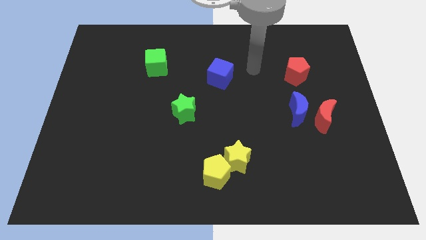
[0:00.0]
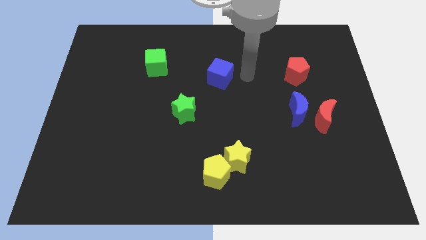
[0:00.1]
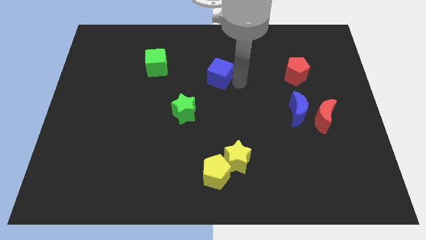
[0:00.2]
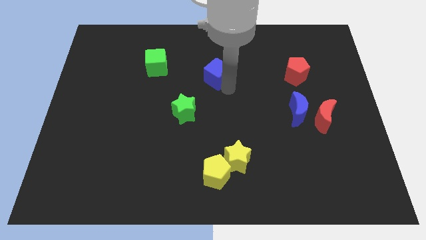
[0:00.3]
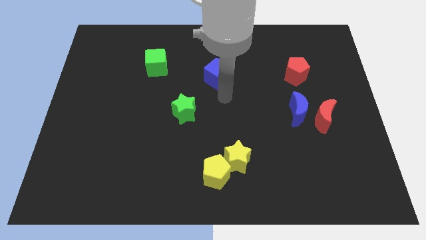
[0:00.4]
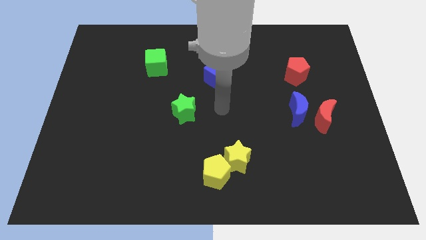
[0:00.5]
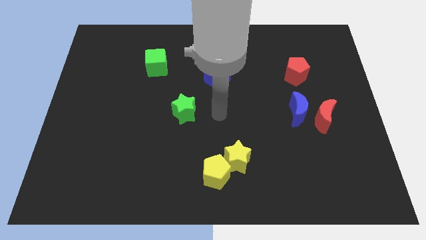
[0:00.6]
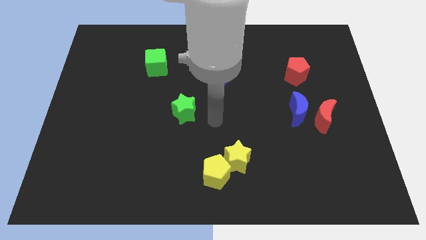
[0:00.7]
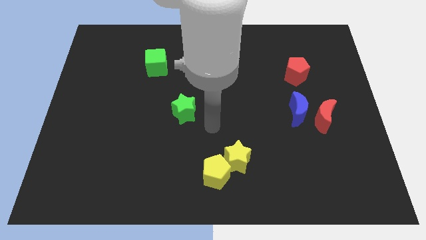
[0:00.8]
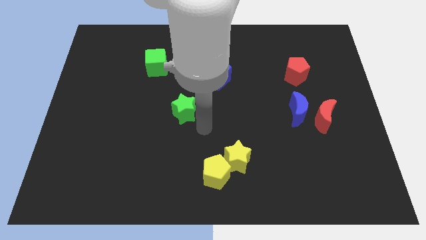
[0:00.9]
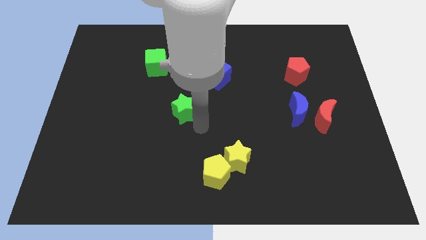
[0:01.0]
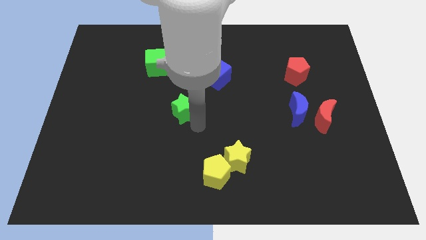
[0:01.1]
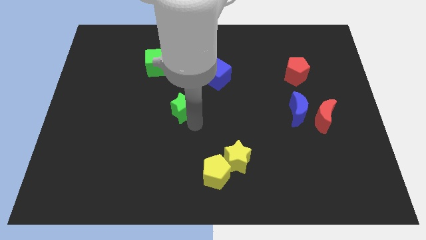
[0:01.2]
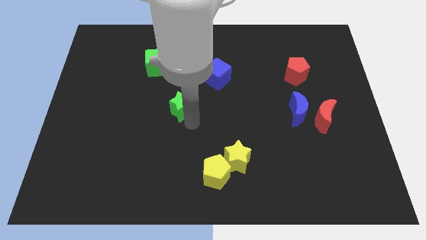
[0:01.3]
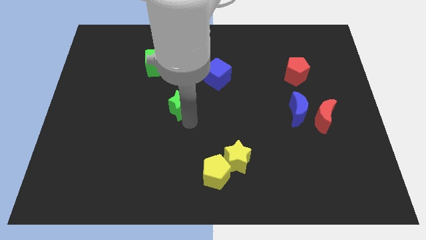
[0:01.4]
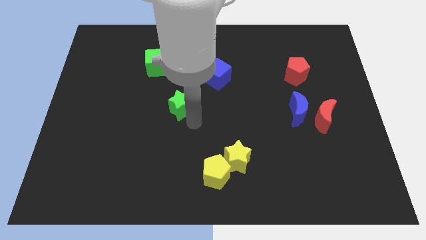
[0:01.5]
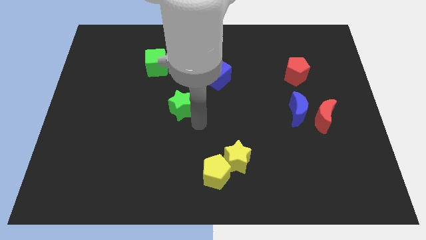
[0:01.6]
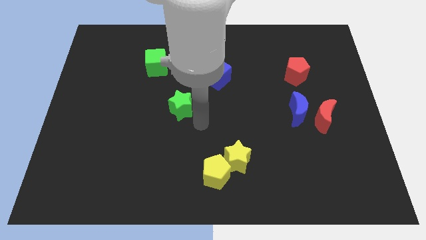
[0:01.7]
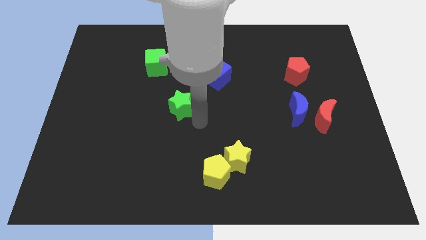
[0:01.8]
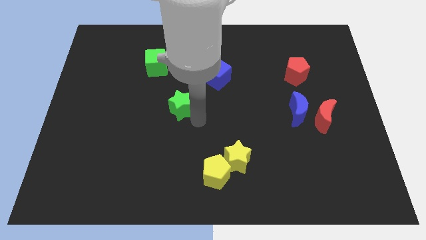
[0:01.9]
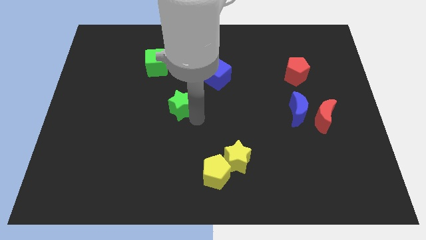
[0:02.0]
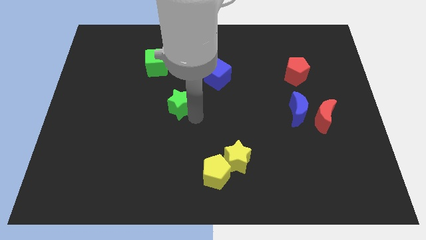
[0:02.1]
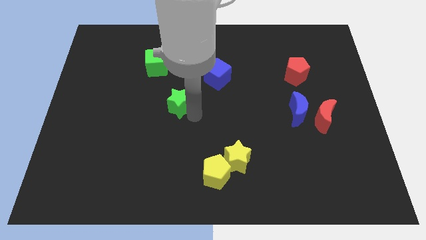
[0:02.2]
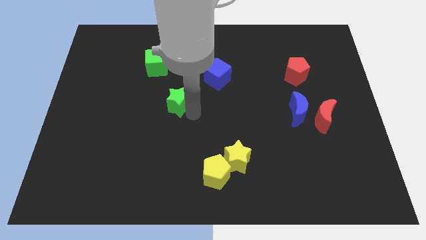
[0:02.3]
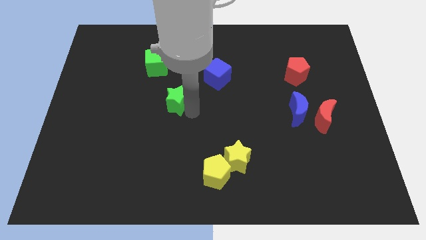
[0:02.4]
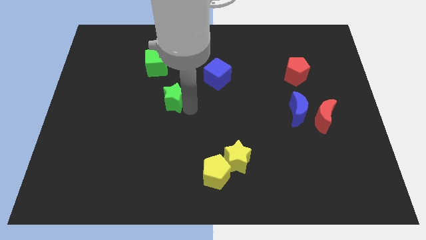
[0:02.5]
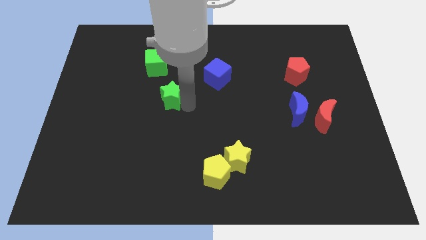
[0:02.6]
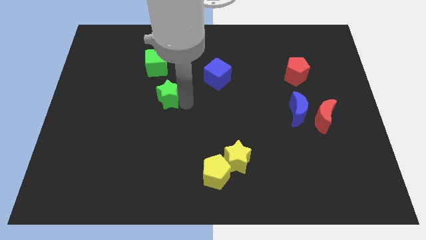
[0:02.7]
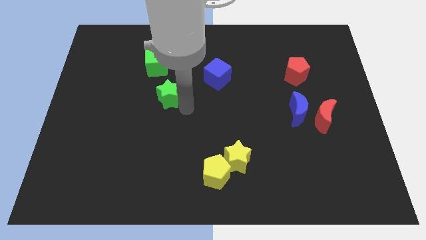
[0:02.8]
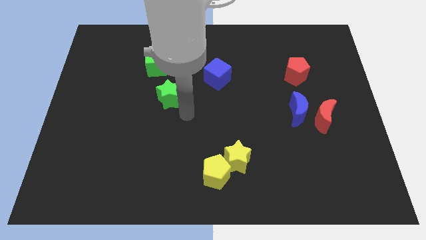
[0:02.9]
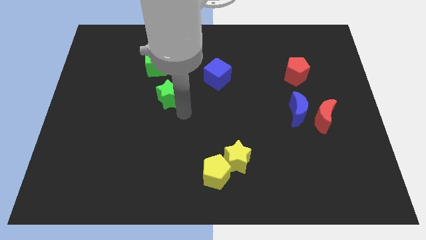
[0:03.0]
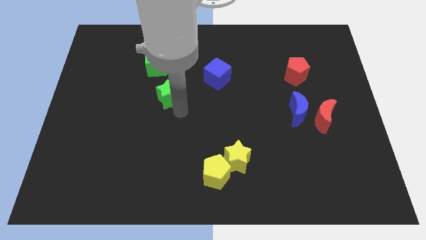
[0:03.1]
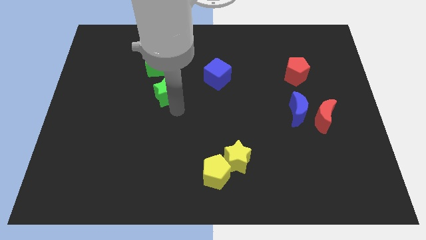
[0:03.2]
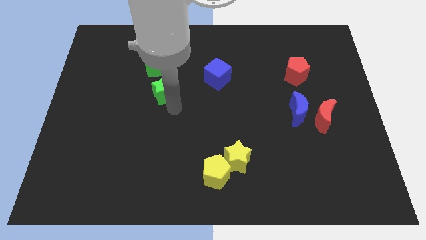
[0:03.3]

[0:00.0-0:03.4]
push the green star a little upwards and left diagonally

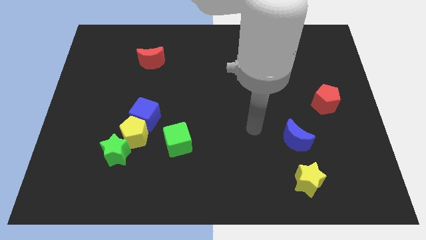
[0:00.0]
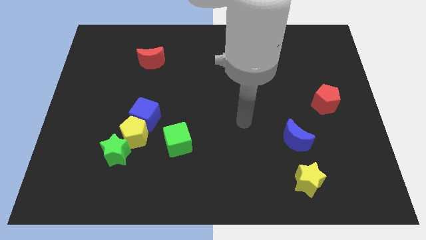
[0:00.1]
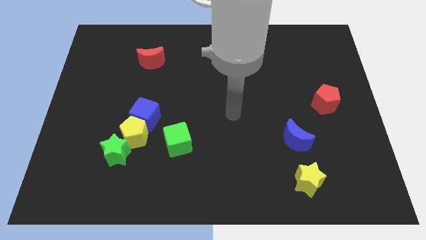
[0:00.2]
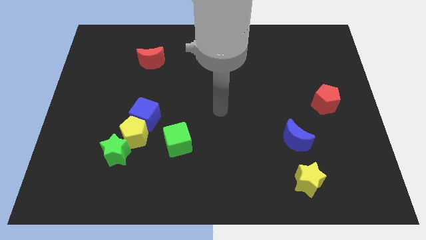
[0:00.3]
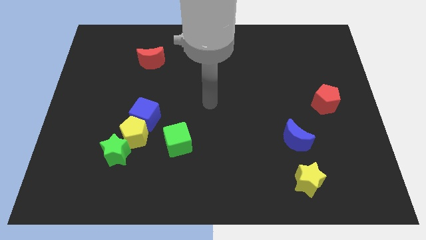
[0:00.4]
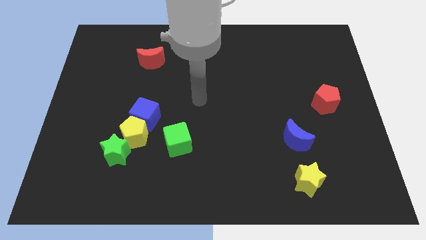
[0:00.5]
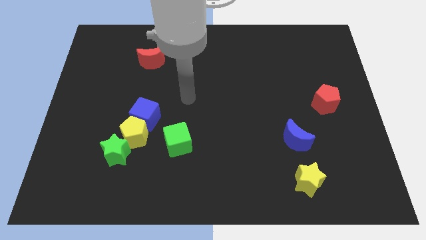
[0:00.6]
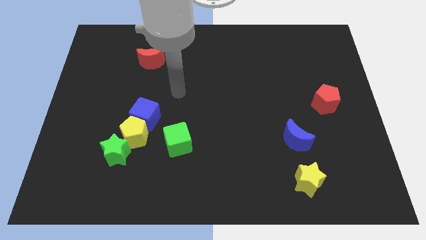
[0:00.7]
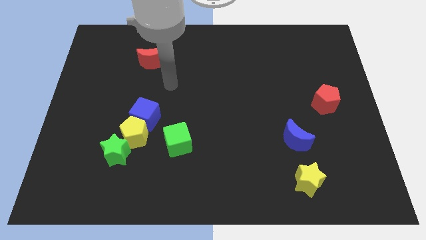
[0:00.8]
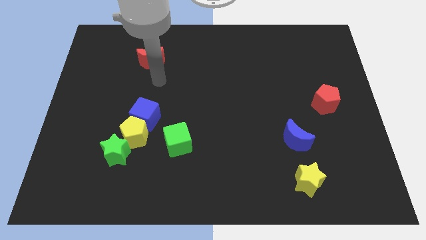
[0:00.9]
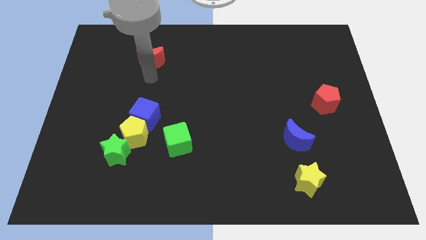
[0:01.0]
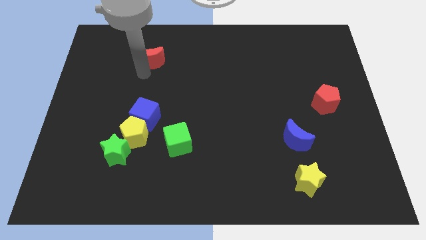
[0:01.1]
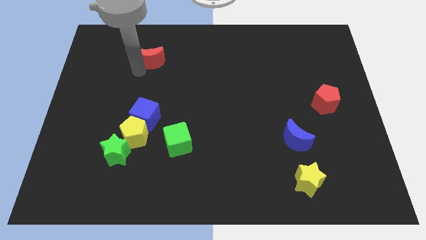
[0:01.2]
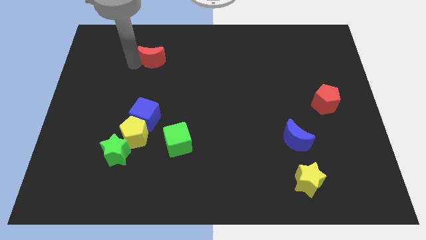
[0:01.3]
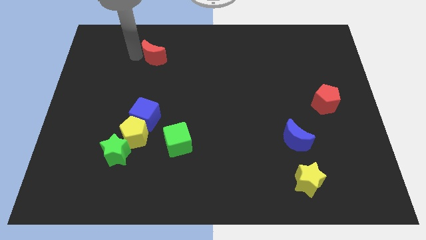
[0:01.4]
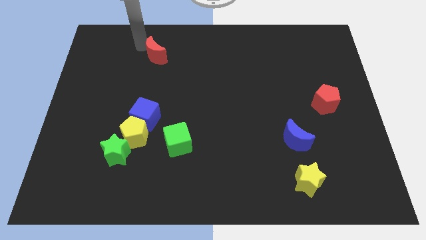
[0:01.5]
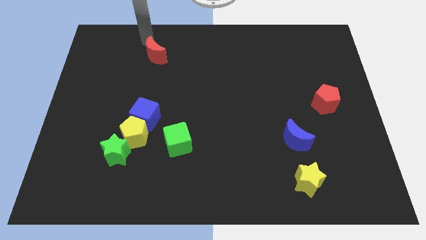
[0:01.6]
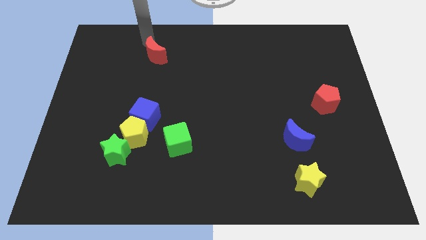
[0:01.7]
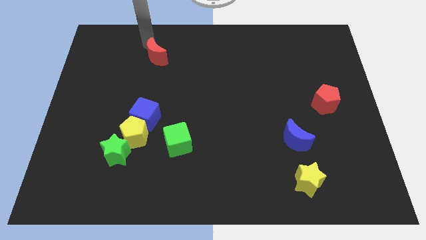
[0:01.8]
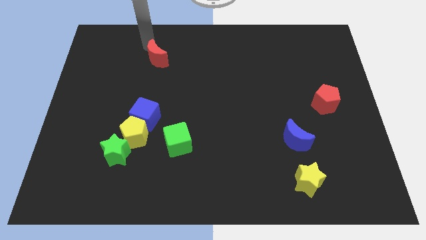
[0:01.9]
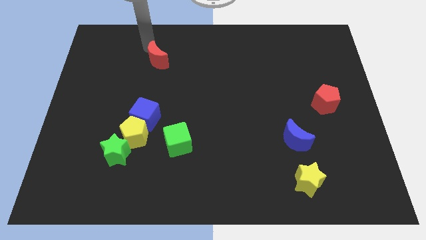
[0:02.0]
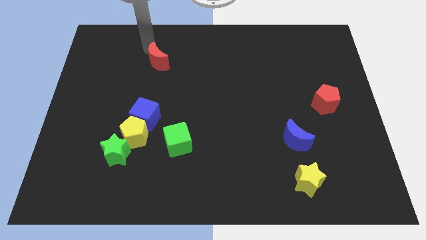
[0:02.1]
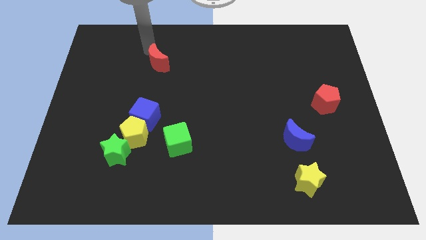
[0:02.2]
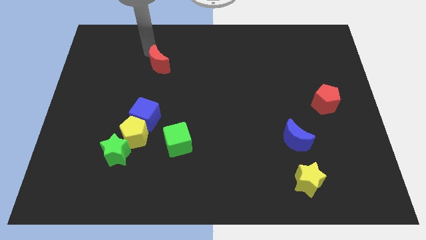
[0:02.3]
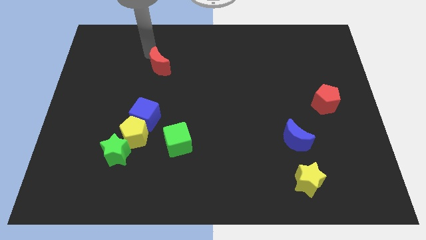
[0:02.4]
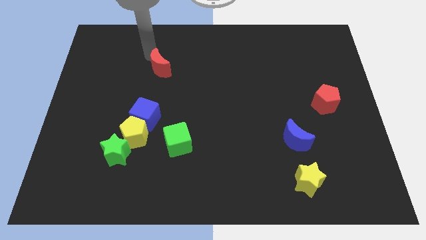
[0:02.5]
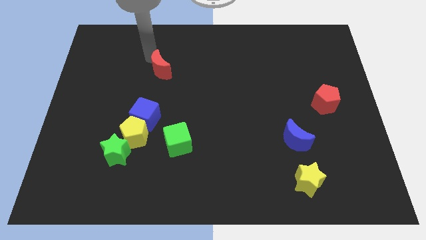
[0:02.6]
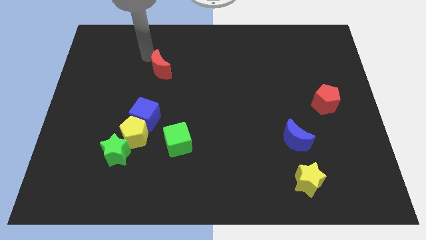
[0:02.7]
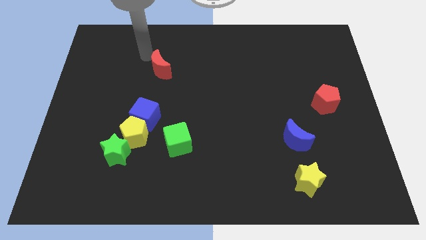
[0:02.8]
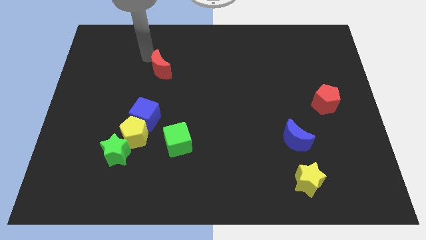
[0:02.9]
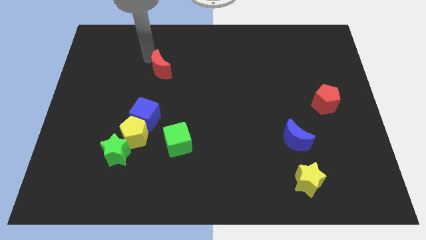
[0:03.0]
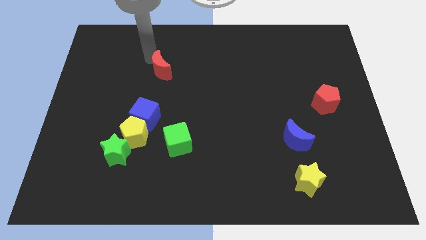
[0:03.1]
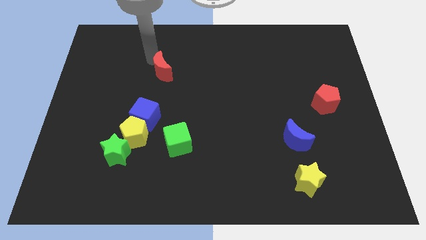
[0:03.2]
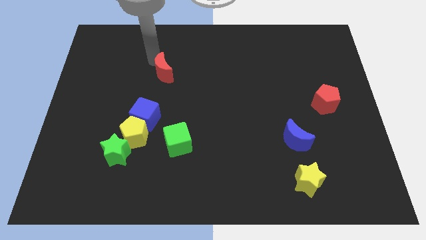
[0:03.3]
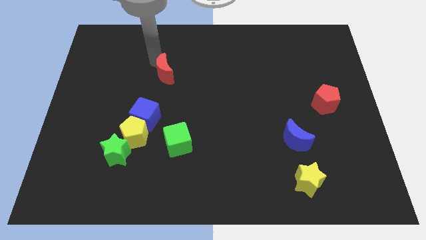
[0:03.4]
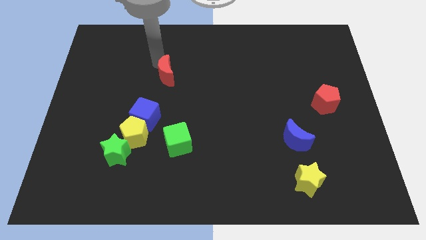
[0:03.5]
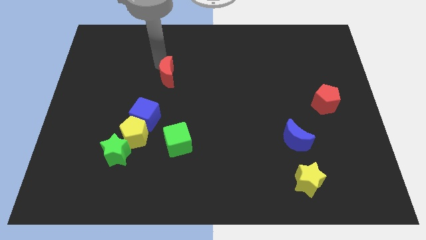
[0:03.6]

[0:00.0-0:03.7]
push the red moon downwards and then to the right a little bit

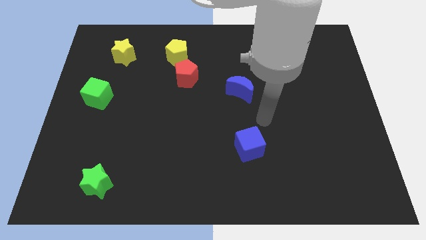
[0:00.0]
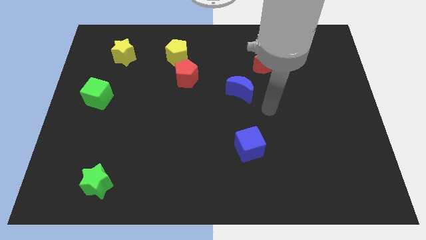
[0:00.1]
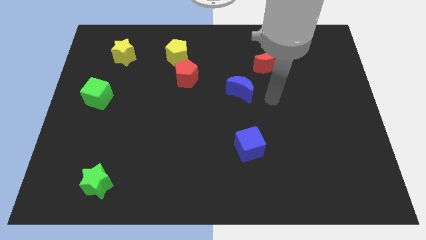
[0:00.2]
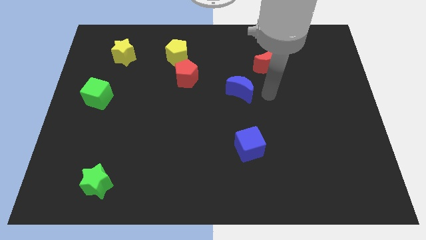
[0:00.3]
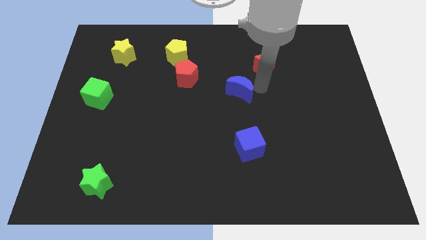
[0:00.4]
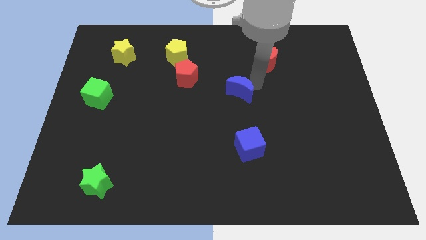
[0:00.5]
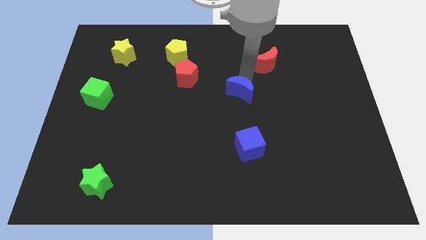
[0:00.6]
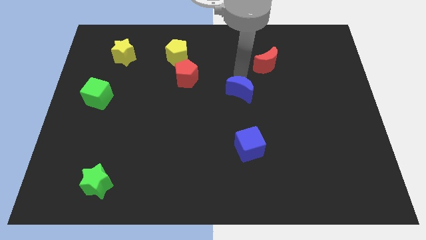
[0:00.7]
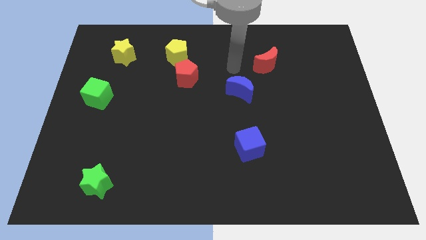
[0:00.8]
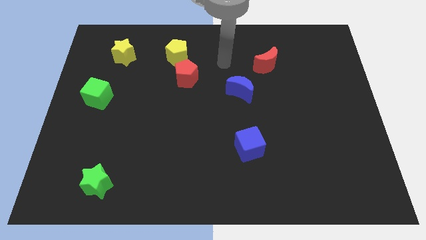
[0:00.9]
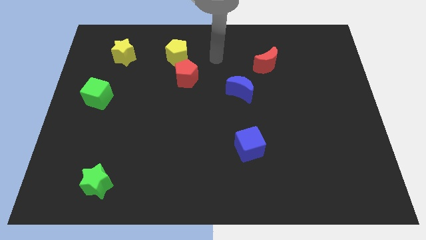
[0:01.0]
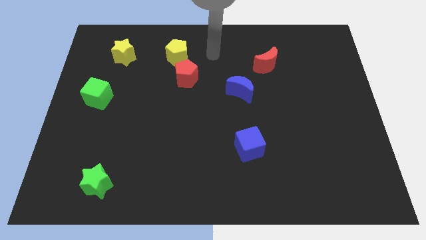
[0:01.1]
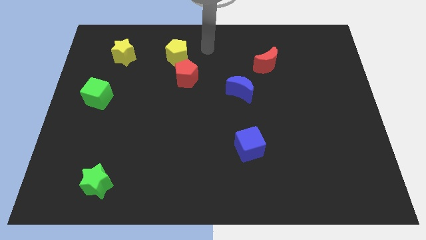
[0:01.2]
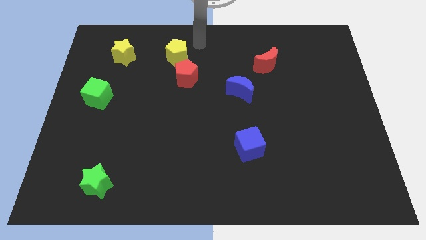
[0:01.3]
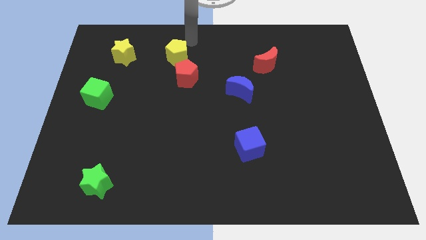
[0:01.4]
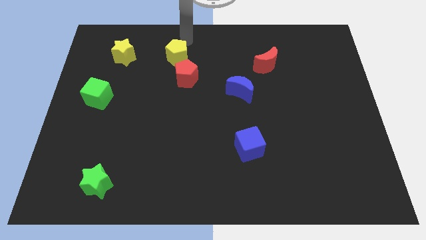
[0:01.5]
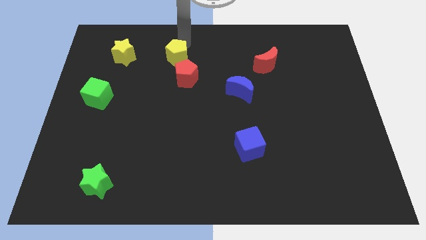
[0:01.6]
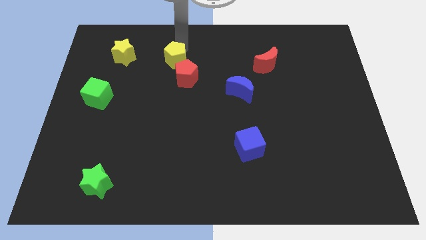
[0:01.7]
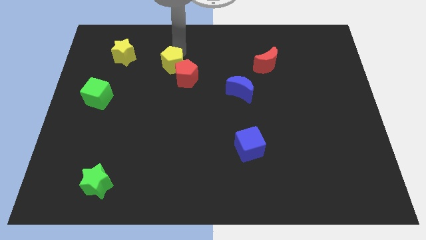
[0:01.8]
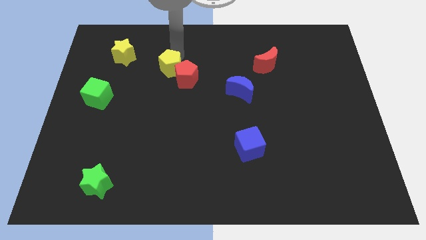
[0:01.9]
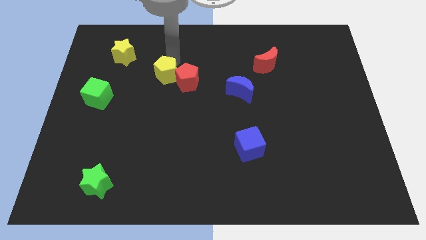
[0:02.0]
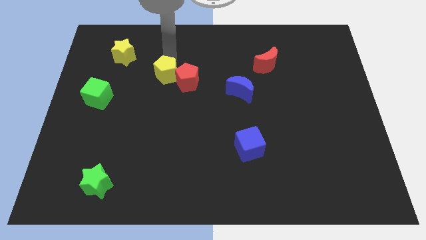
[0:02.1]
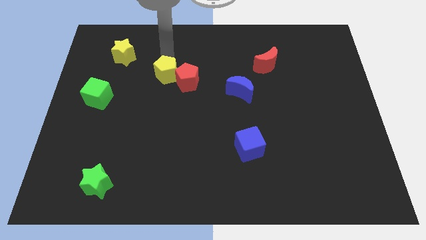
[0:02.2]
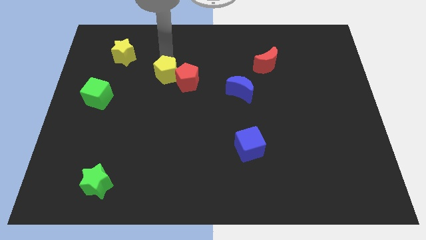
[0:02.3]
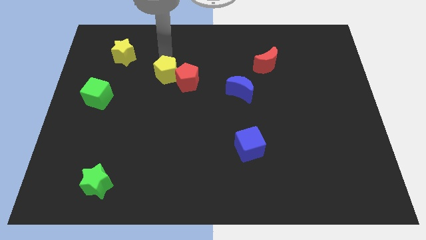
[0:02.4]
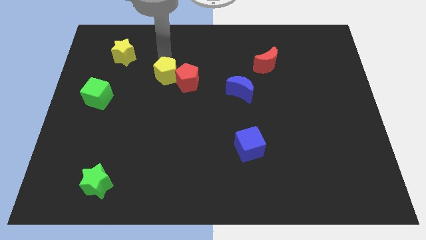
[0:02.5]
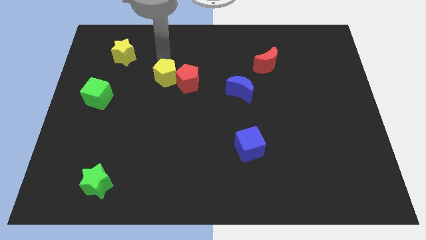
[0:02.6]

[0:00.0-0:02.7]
push the yellow pentagon slightly downwards
